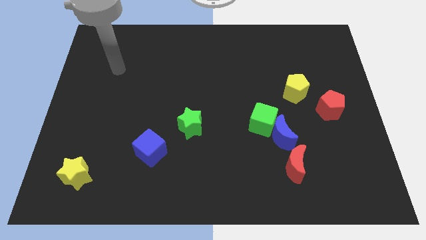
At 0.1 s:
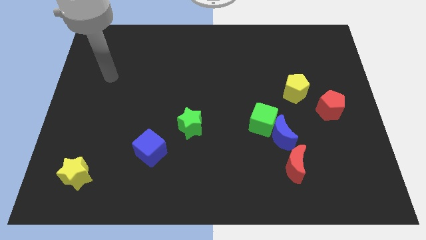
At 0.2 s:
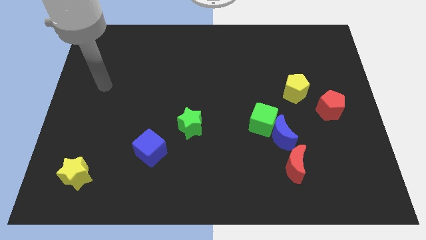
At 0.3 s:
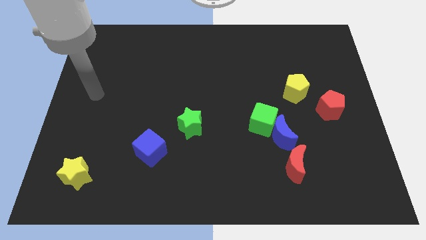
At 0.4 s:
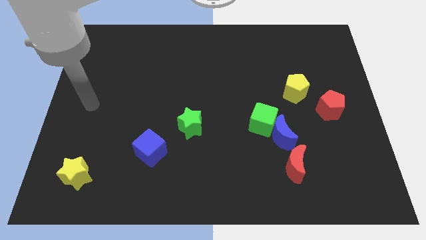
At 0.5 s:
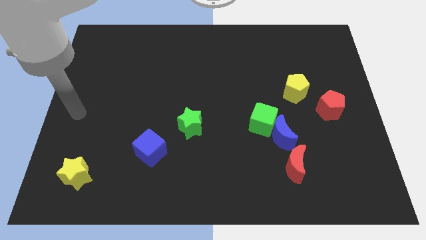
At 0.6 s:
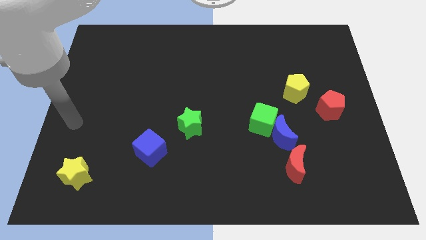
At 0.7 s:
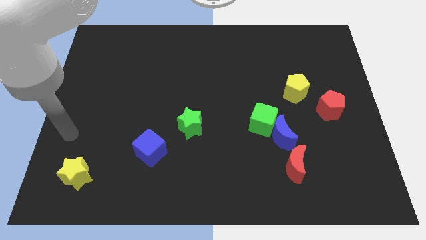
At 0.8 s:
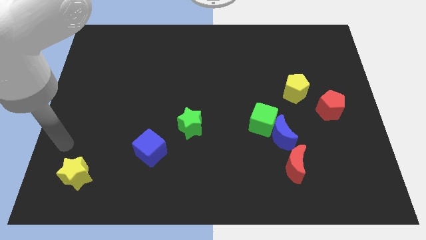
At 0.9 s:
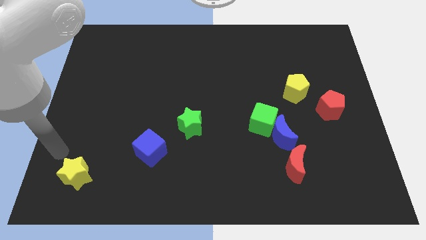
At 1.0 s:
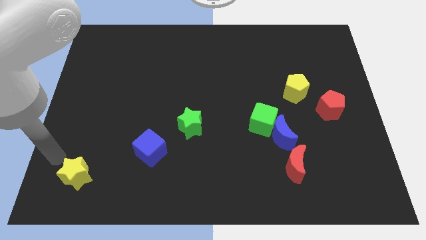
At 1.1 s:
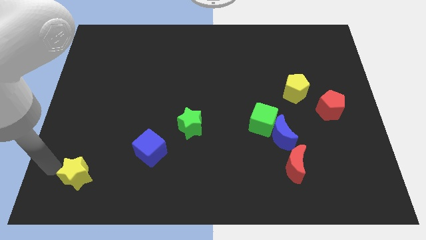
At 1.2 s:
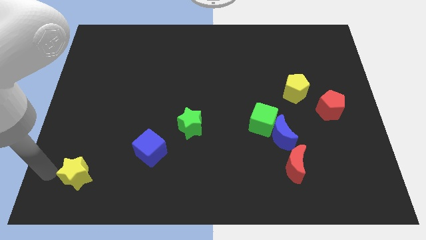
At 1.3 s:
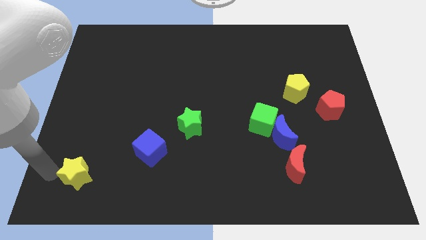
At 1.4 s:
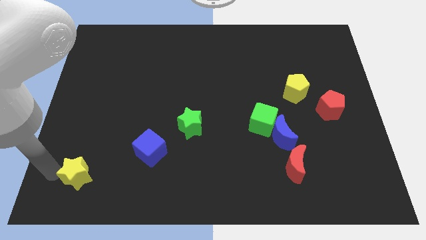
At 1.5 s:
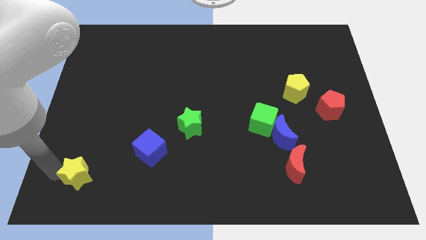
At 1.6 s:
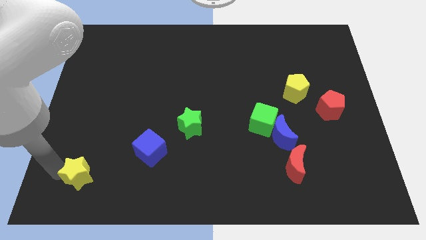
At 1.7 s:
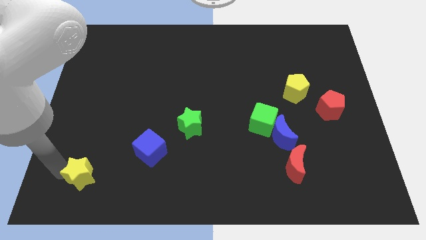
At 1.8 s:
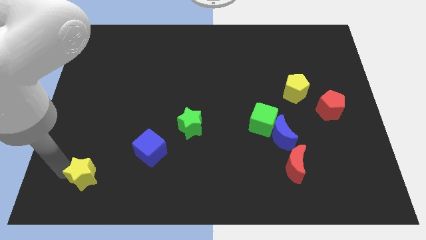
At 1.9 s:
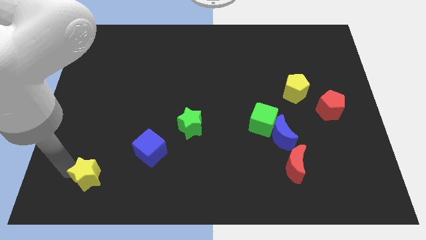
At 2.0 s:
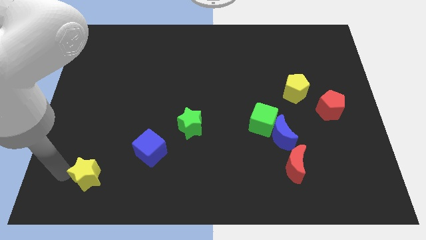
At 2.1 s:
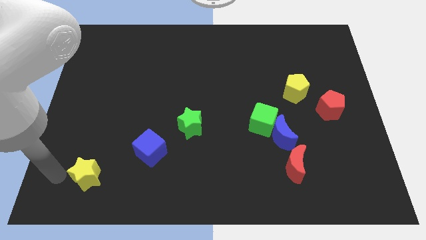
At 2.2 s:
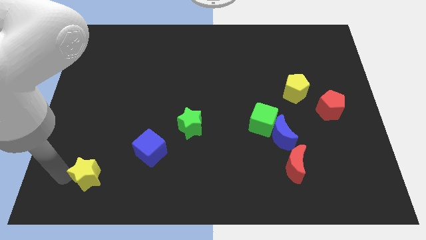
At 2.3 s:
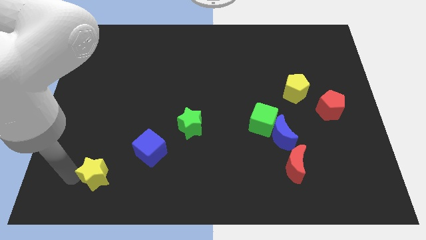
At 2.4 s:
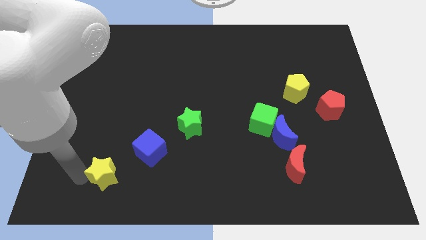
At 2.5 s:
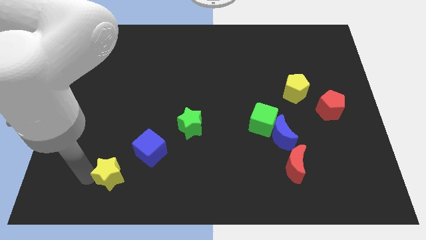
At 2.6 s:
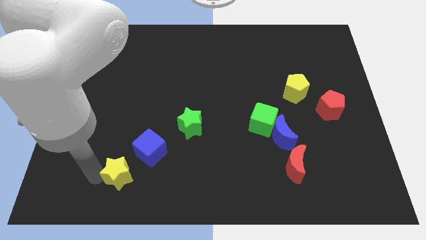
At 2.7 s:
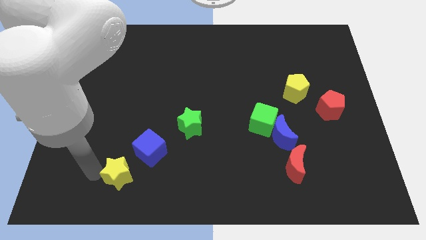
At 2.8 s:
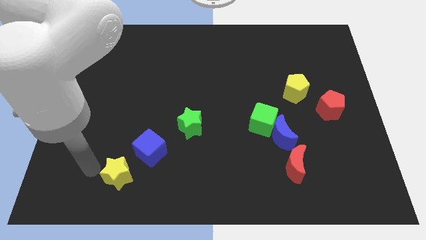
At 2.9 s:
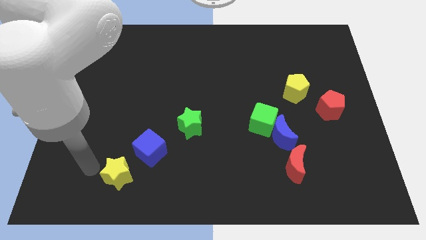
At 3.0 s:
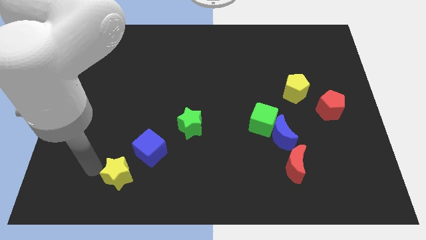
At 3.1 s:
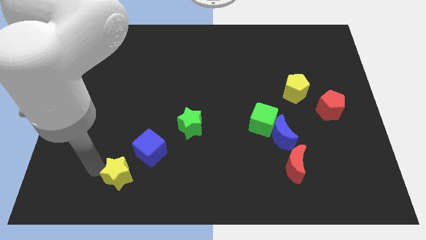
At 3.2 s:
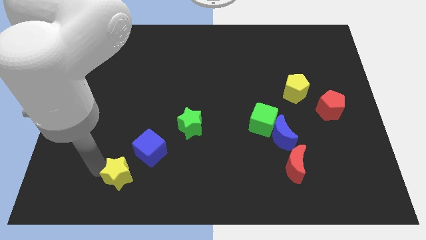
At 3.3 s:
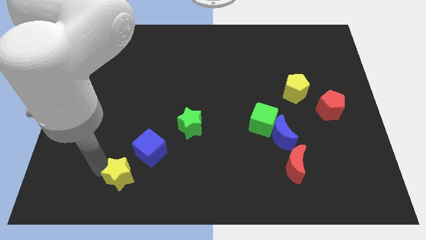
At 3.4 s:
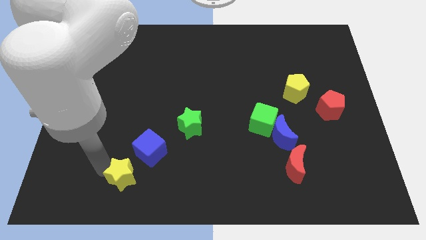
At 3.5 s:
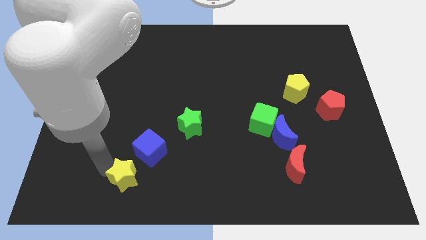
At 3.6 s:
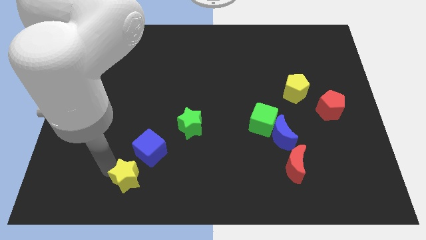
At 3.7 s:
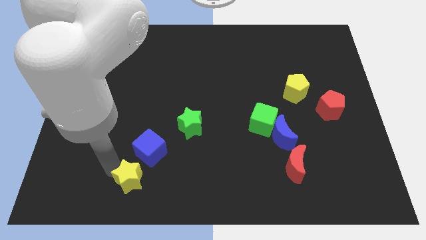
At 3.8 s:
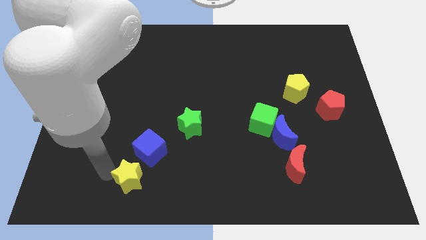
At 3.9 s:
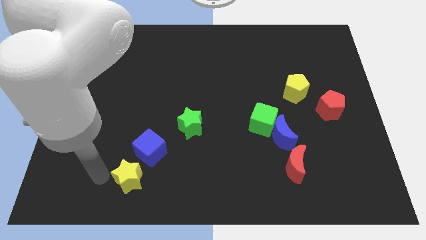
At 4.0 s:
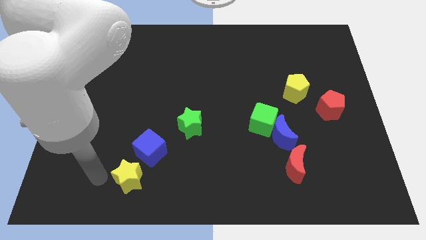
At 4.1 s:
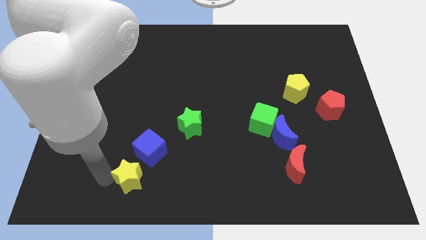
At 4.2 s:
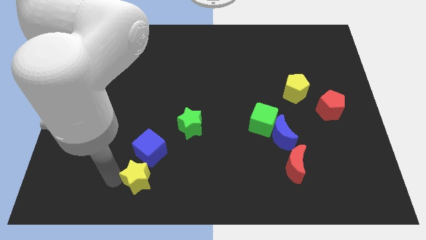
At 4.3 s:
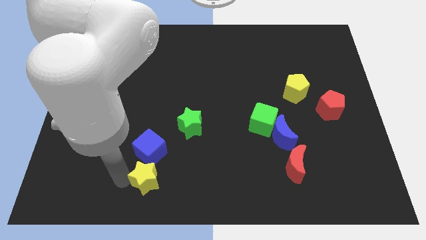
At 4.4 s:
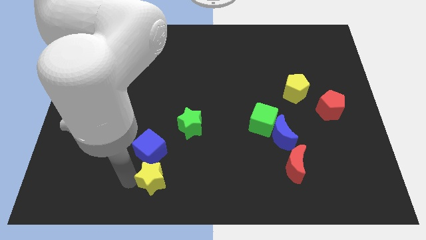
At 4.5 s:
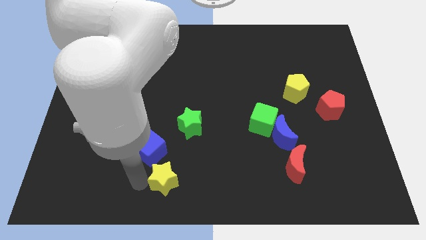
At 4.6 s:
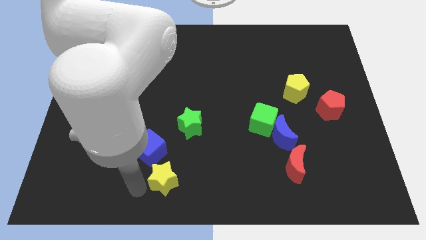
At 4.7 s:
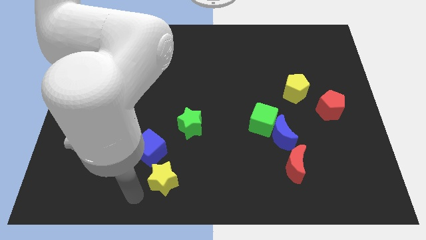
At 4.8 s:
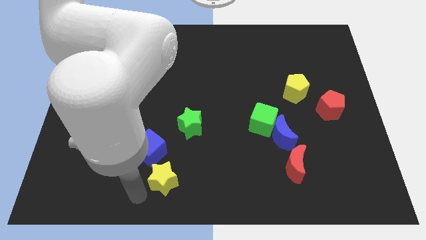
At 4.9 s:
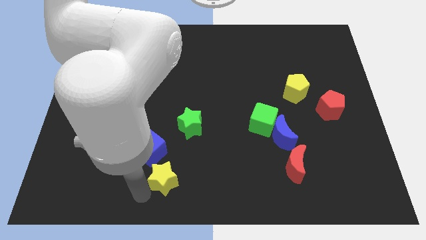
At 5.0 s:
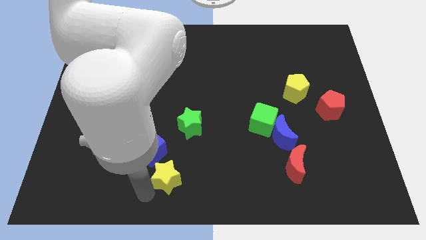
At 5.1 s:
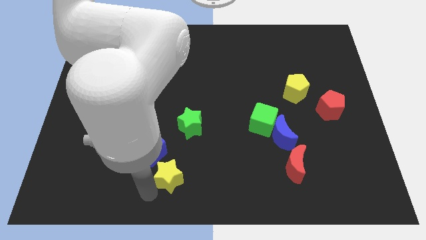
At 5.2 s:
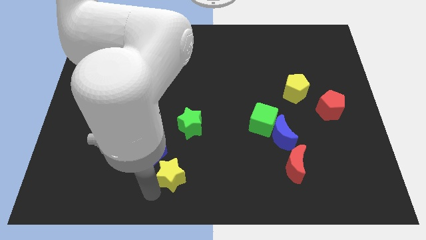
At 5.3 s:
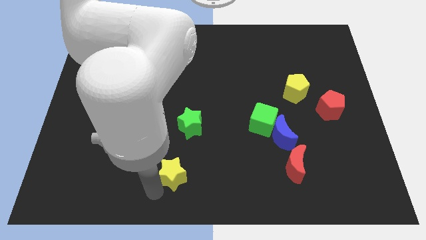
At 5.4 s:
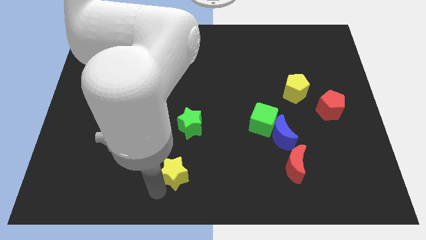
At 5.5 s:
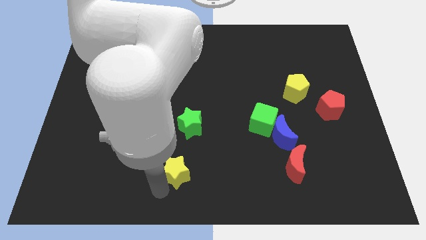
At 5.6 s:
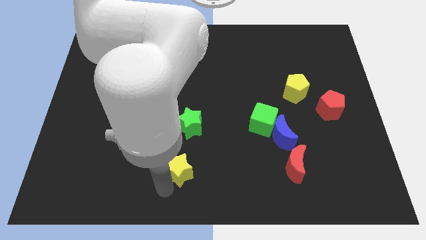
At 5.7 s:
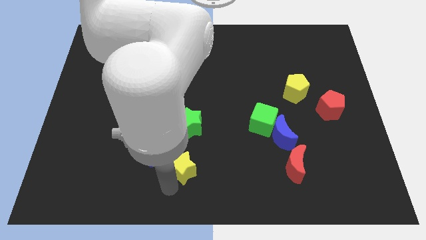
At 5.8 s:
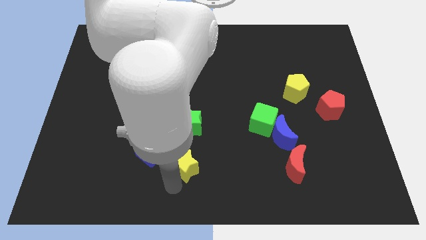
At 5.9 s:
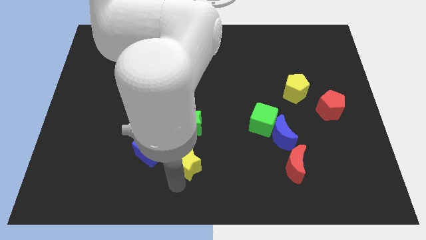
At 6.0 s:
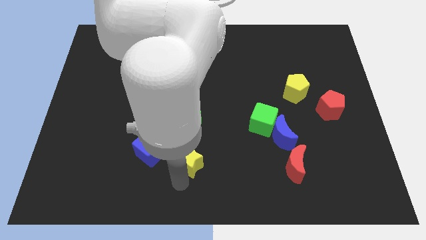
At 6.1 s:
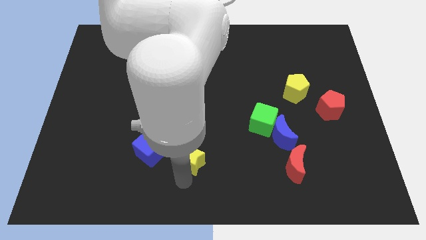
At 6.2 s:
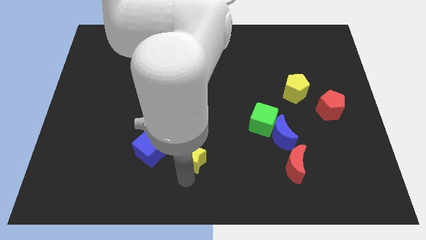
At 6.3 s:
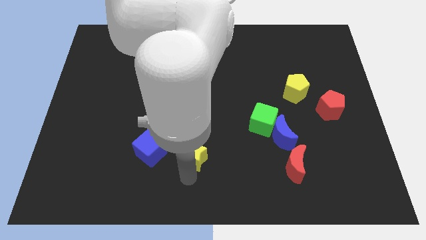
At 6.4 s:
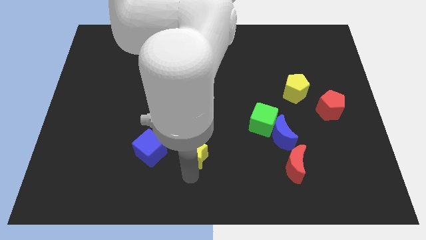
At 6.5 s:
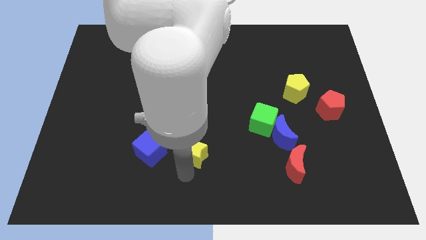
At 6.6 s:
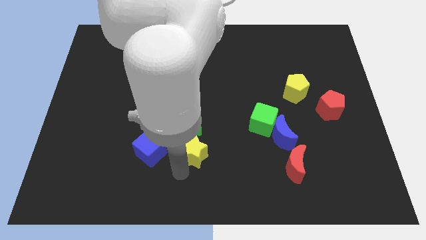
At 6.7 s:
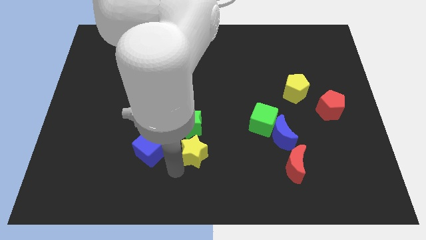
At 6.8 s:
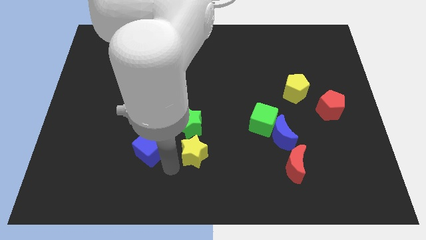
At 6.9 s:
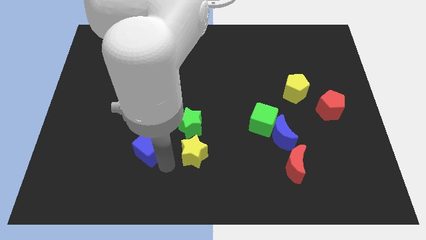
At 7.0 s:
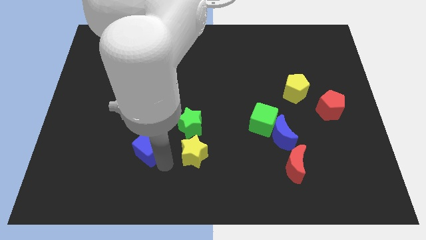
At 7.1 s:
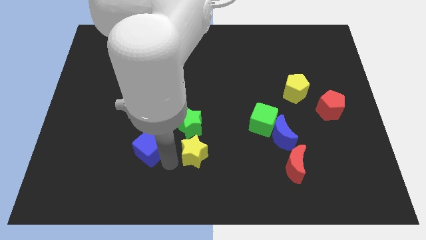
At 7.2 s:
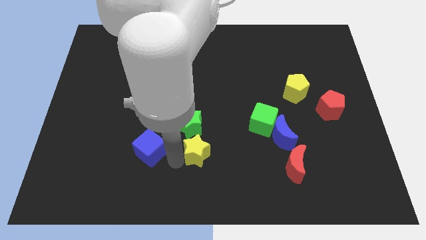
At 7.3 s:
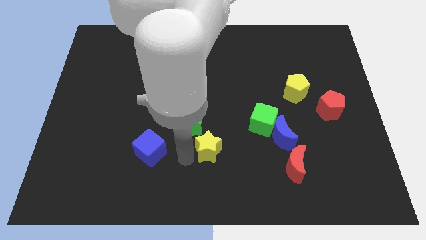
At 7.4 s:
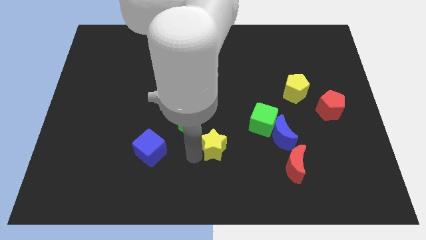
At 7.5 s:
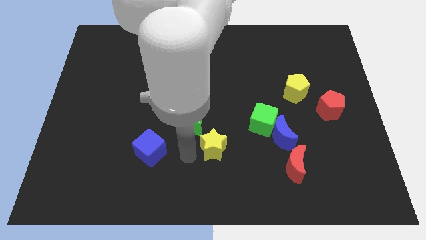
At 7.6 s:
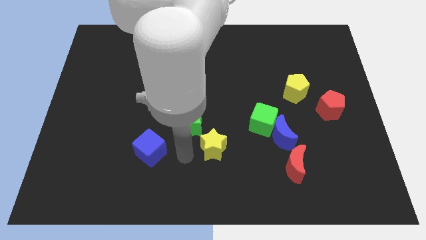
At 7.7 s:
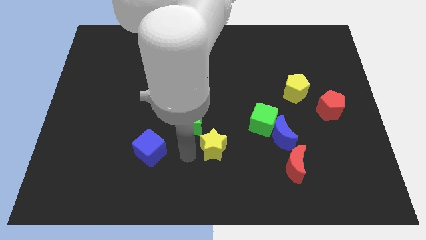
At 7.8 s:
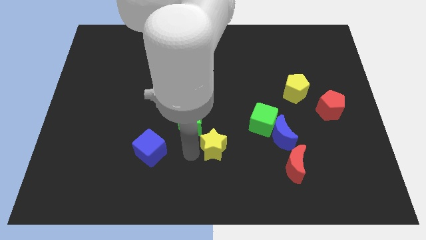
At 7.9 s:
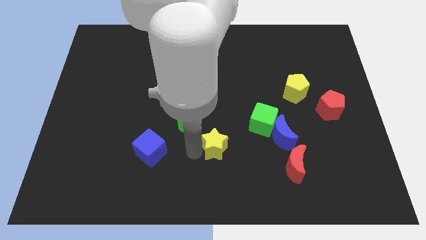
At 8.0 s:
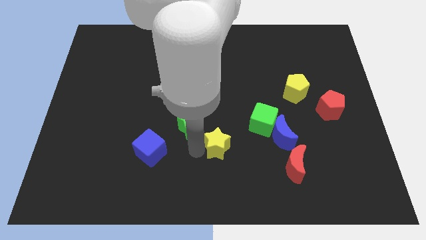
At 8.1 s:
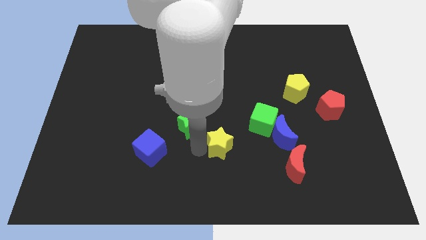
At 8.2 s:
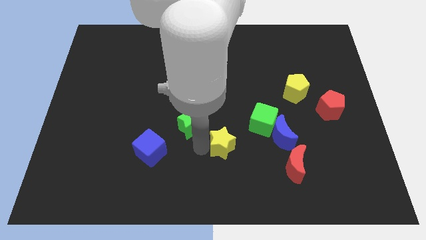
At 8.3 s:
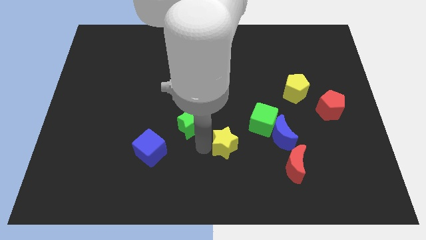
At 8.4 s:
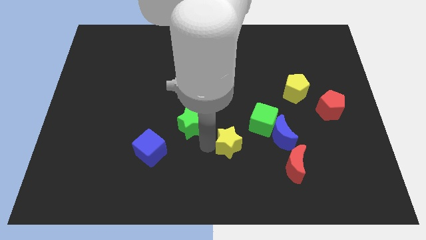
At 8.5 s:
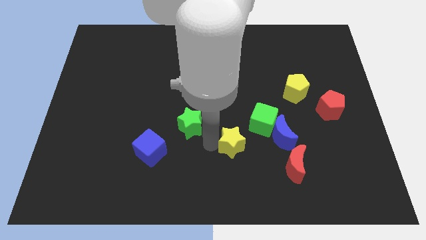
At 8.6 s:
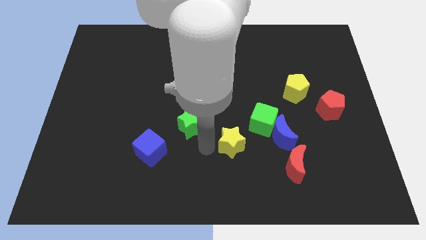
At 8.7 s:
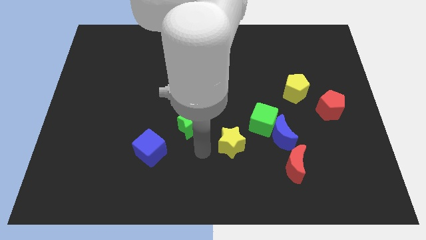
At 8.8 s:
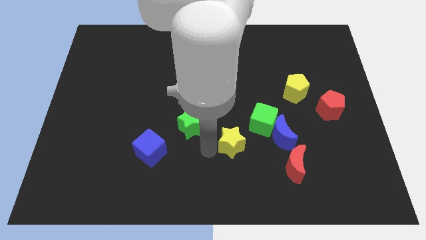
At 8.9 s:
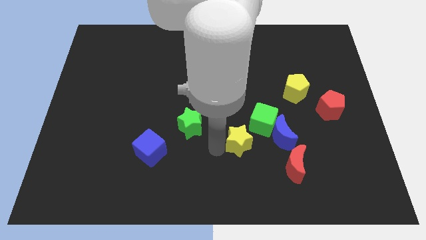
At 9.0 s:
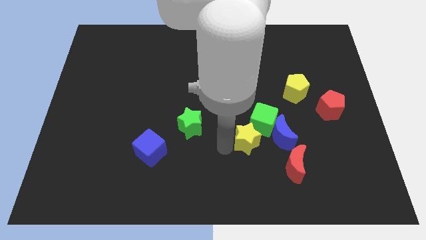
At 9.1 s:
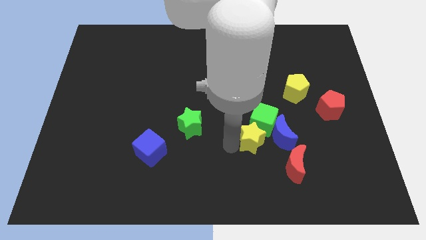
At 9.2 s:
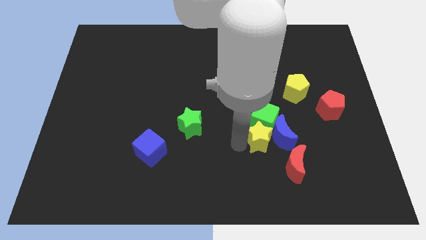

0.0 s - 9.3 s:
move the yellow star towards the blue moon
